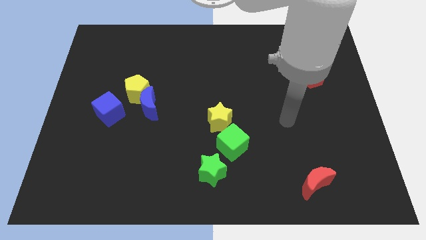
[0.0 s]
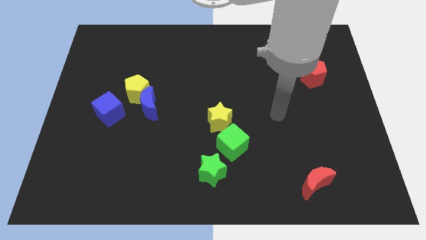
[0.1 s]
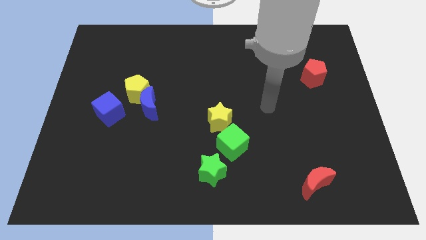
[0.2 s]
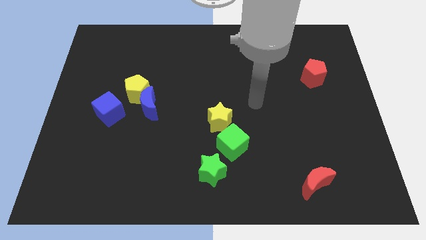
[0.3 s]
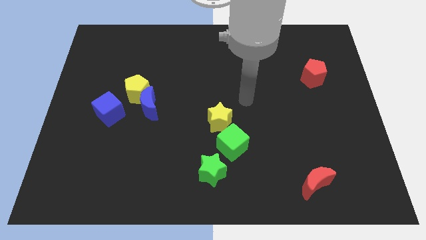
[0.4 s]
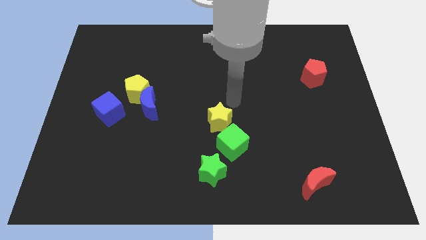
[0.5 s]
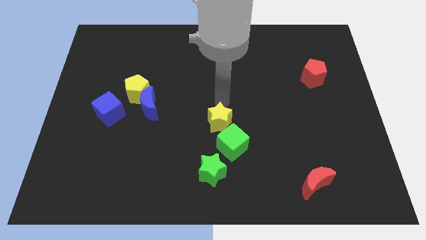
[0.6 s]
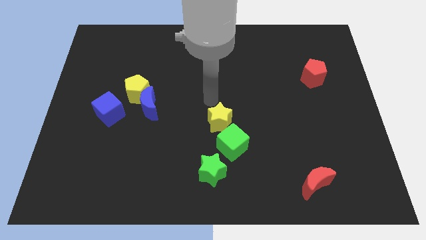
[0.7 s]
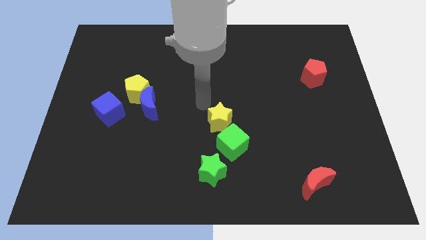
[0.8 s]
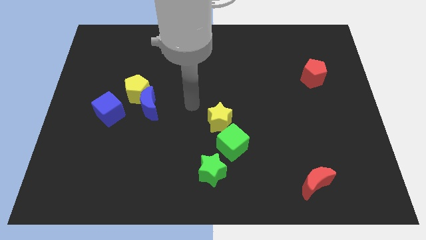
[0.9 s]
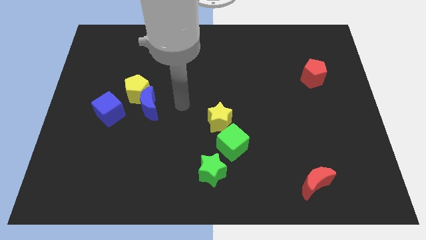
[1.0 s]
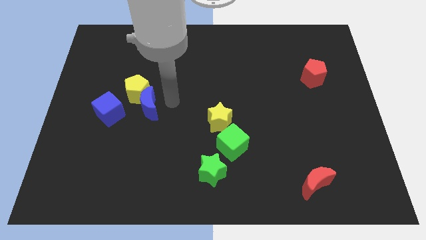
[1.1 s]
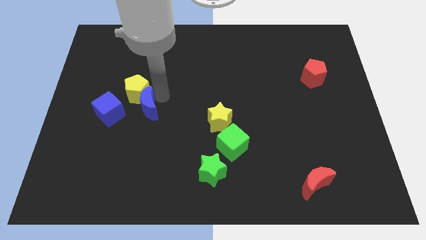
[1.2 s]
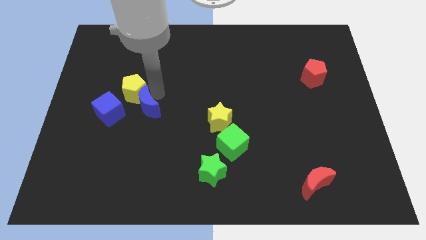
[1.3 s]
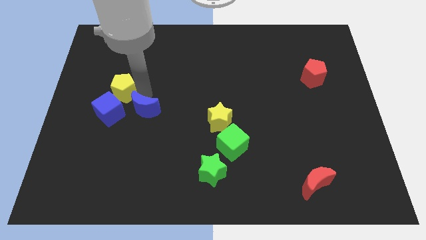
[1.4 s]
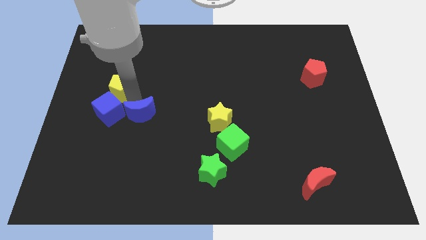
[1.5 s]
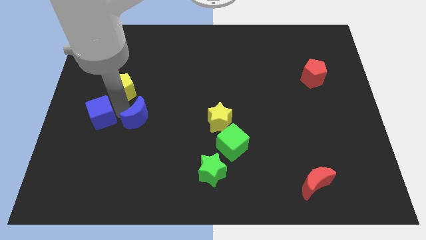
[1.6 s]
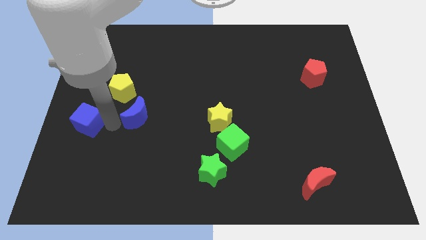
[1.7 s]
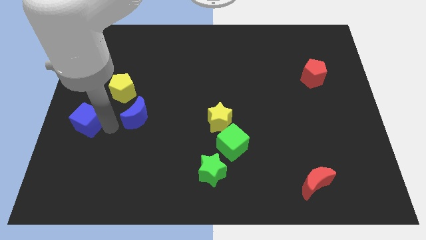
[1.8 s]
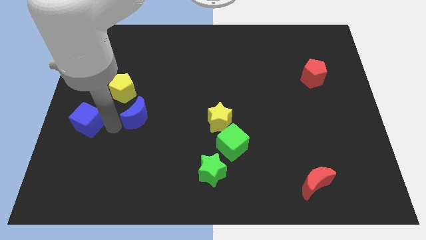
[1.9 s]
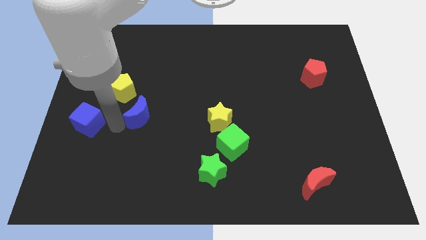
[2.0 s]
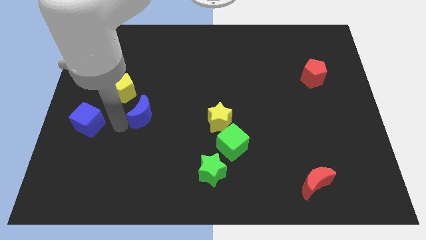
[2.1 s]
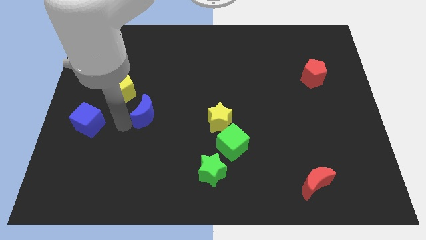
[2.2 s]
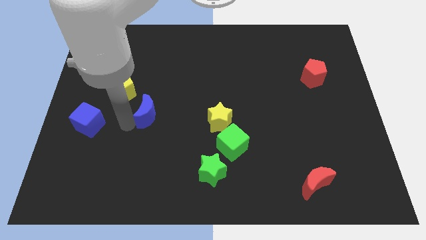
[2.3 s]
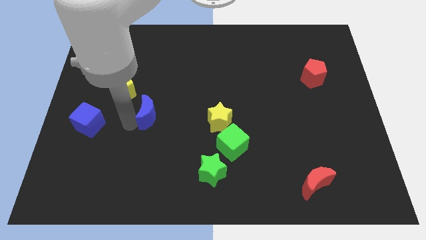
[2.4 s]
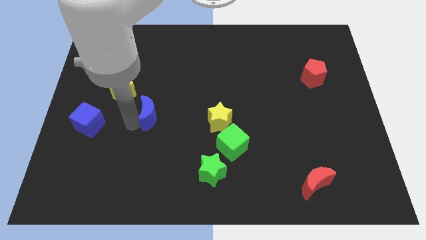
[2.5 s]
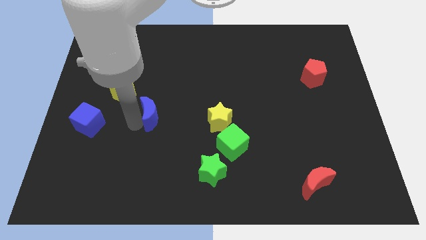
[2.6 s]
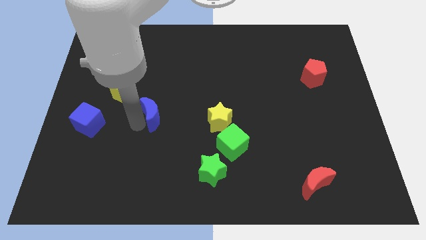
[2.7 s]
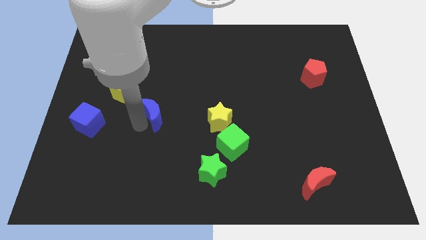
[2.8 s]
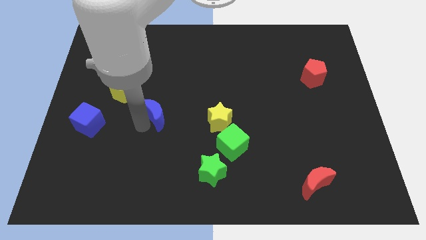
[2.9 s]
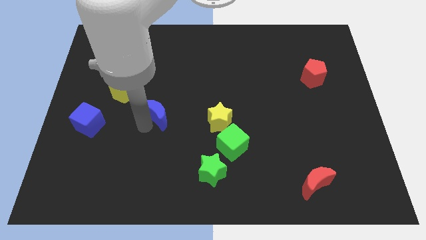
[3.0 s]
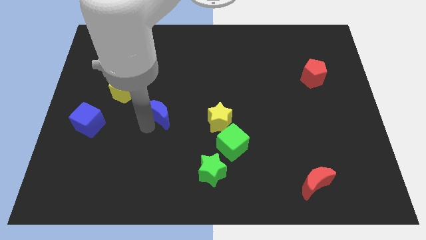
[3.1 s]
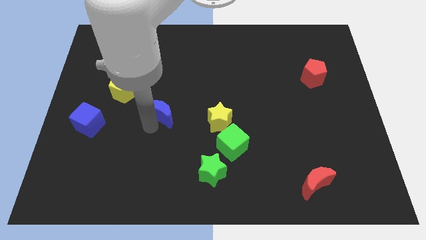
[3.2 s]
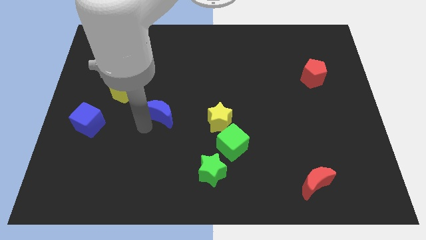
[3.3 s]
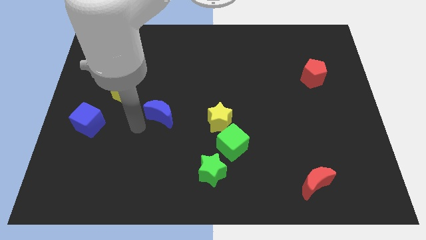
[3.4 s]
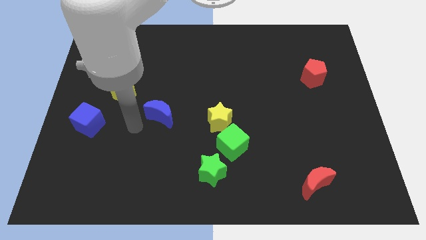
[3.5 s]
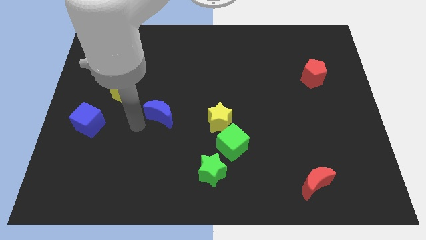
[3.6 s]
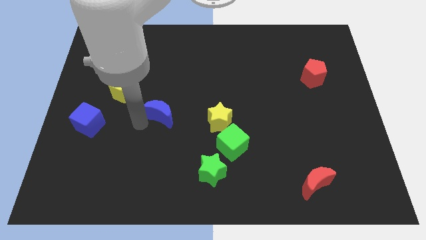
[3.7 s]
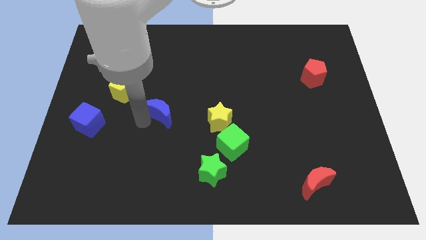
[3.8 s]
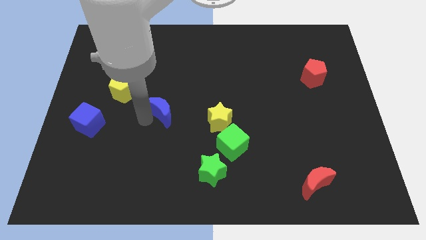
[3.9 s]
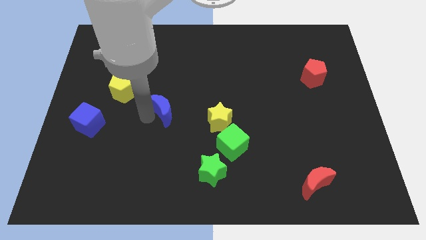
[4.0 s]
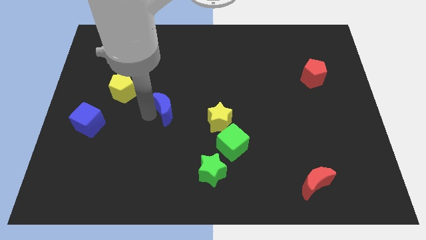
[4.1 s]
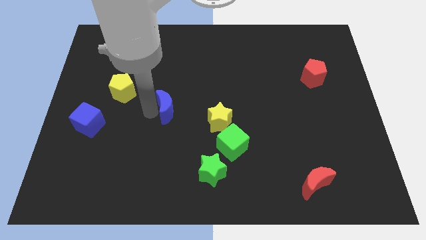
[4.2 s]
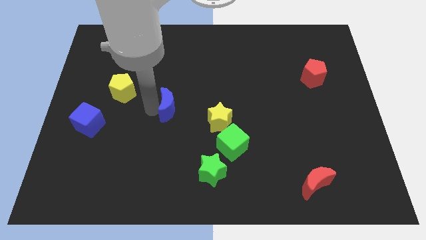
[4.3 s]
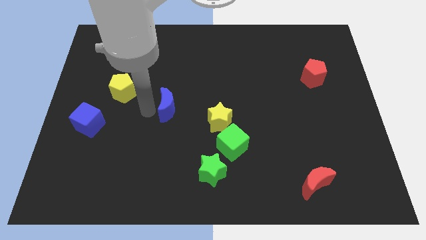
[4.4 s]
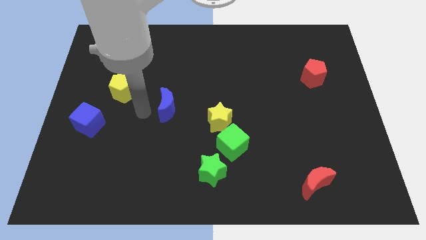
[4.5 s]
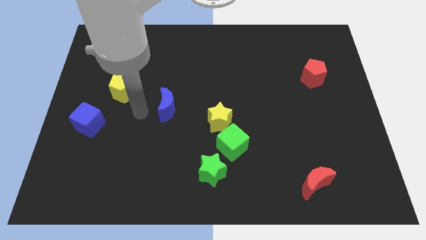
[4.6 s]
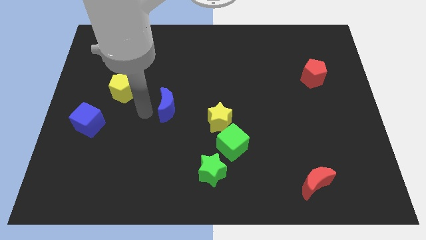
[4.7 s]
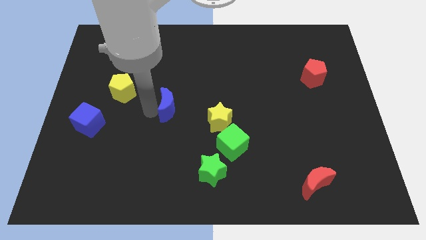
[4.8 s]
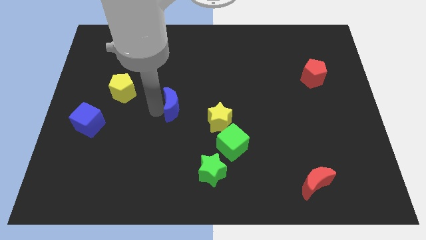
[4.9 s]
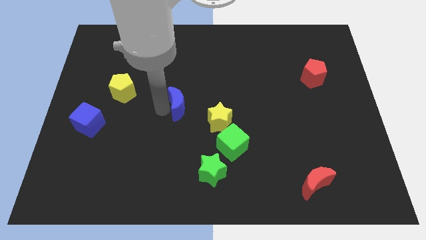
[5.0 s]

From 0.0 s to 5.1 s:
slightly move the blue moon to the right

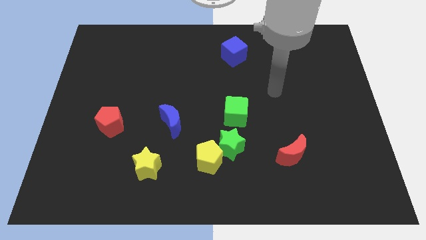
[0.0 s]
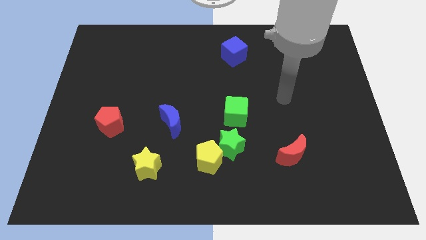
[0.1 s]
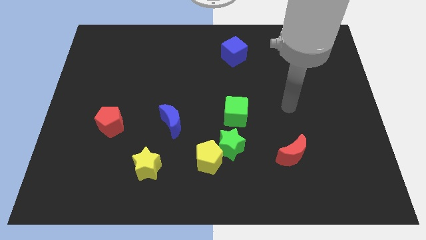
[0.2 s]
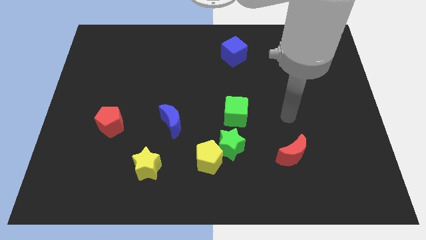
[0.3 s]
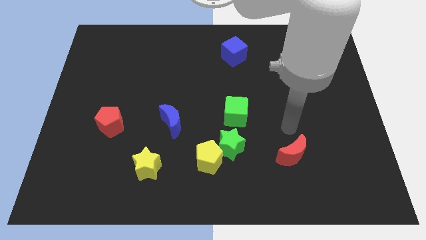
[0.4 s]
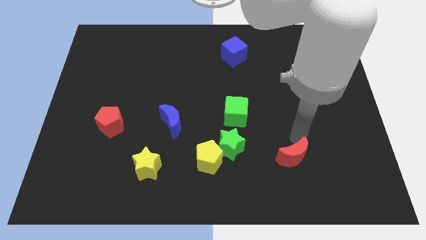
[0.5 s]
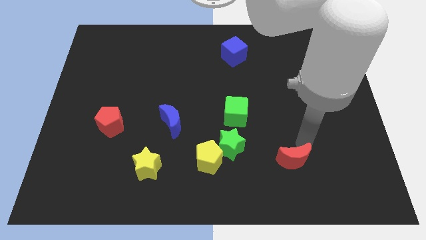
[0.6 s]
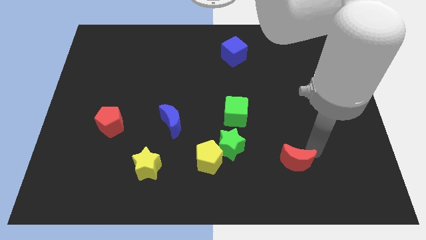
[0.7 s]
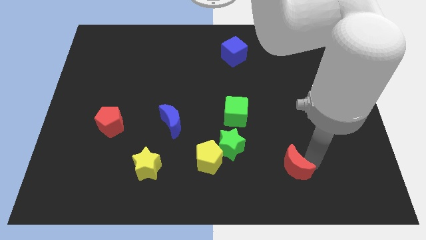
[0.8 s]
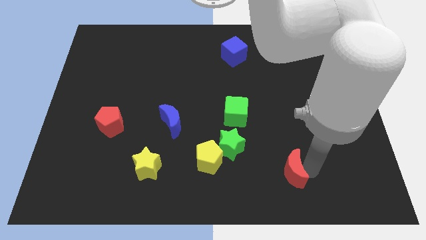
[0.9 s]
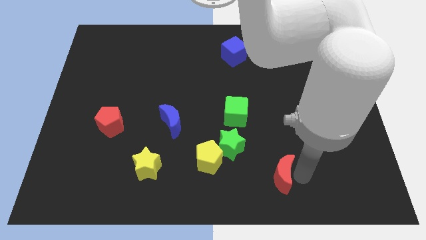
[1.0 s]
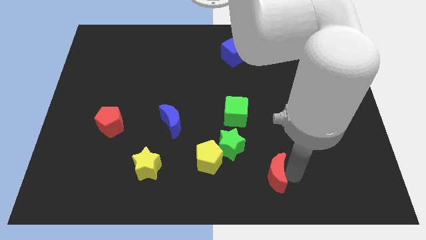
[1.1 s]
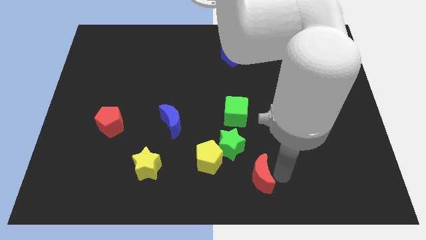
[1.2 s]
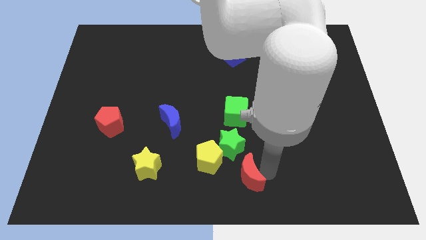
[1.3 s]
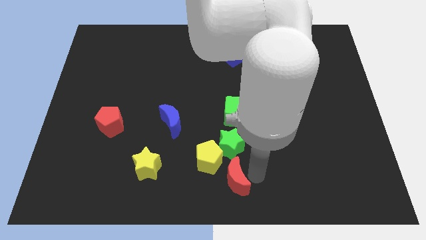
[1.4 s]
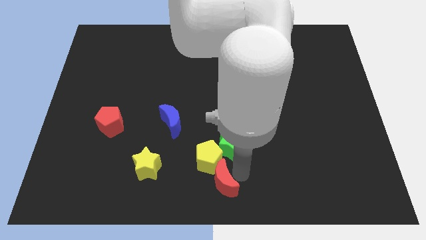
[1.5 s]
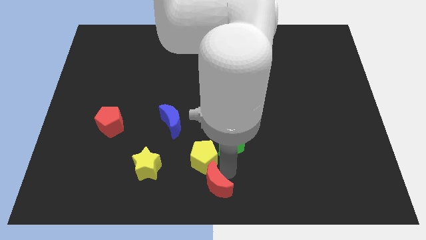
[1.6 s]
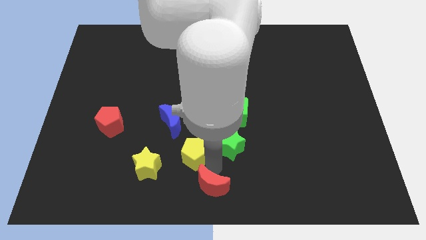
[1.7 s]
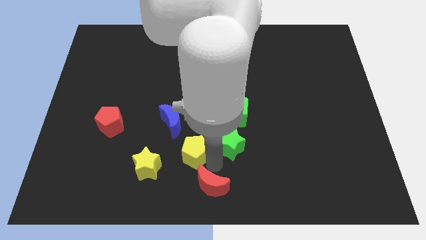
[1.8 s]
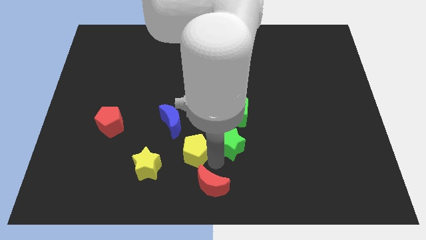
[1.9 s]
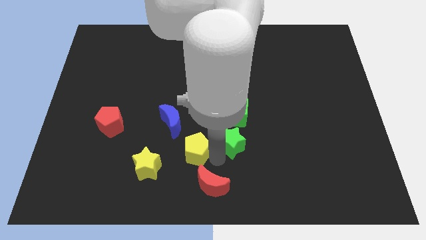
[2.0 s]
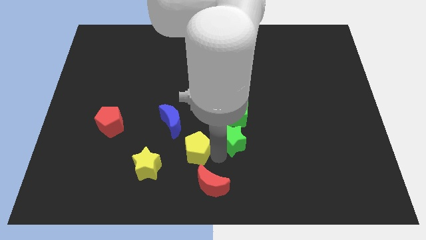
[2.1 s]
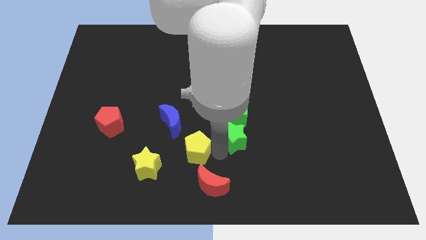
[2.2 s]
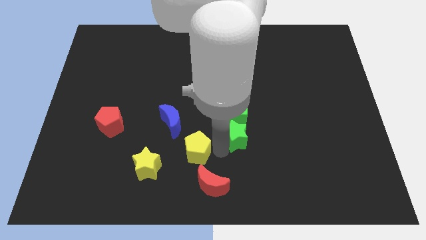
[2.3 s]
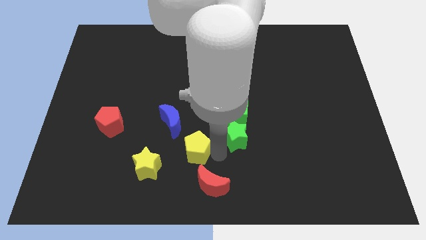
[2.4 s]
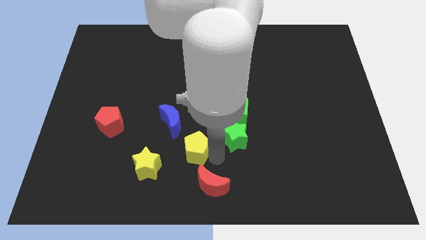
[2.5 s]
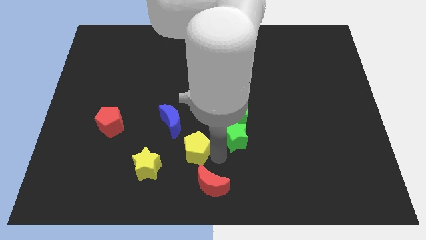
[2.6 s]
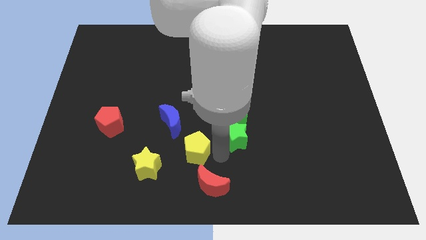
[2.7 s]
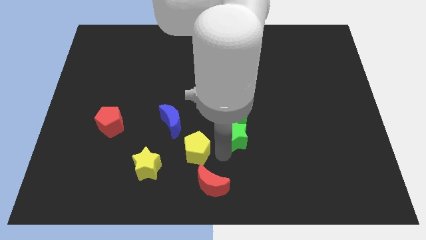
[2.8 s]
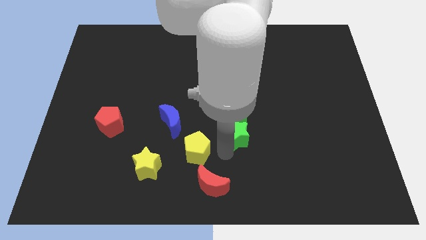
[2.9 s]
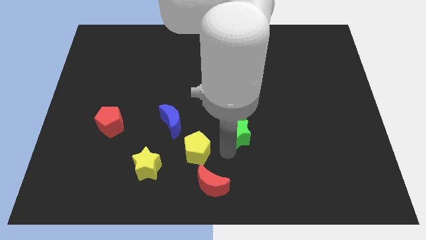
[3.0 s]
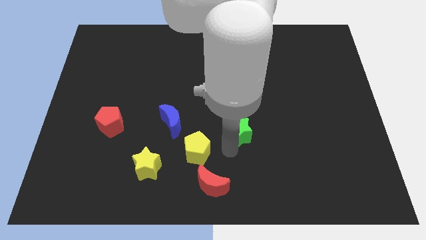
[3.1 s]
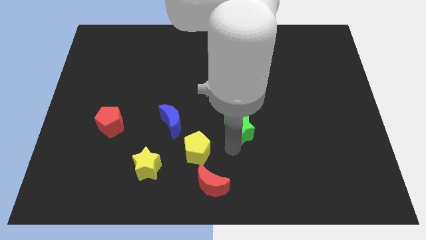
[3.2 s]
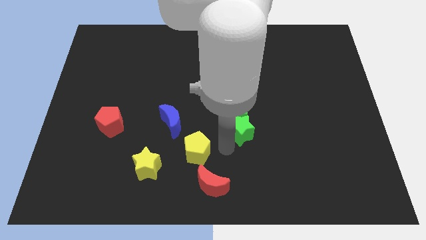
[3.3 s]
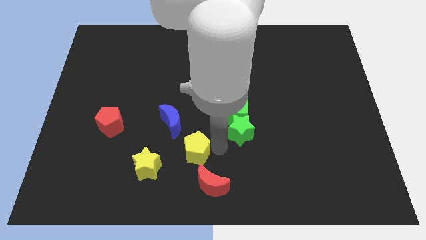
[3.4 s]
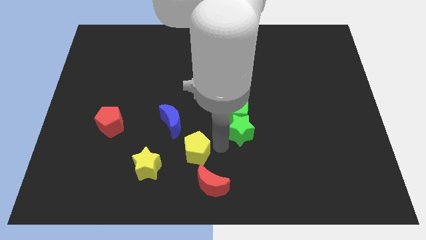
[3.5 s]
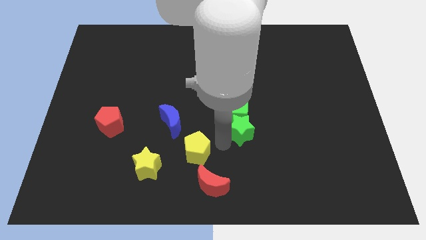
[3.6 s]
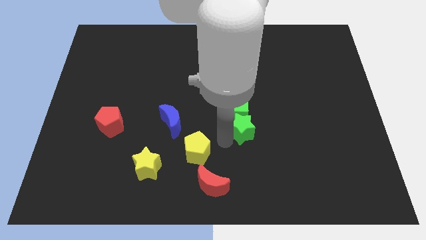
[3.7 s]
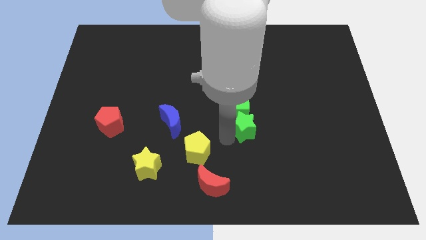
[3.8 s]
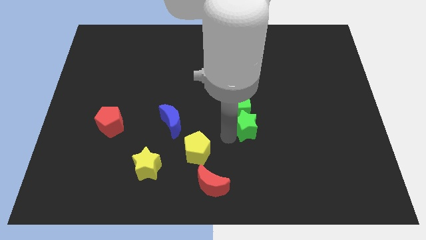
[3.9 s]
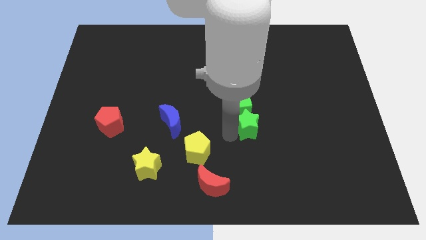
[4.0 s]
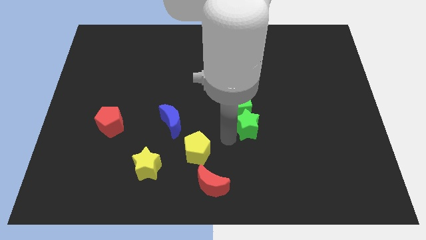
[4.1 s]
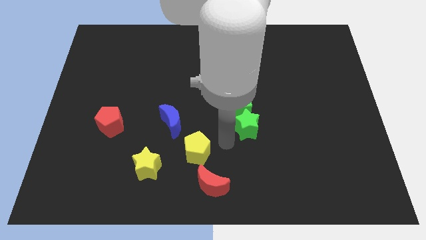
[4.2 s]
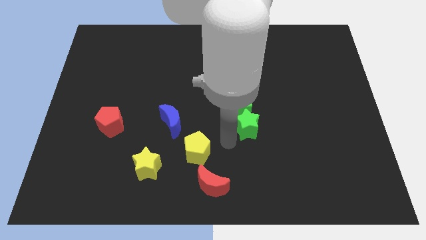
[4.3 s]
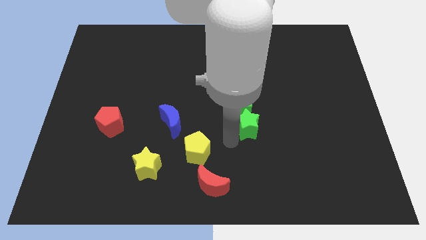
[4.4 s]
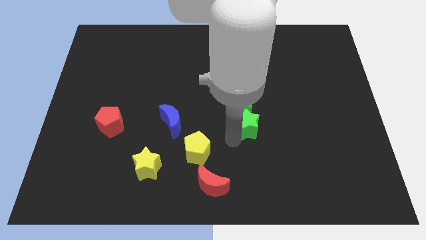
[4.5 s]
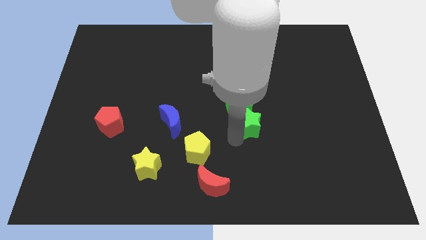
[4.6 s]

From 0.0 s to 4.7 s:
move the green star a little upwards and right
